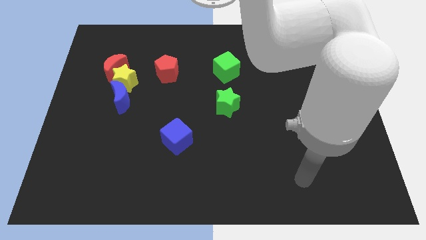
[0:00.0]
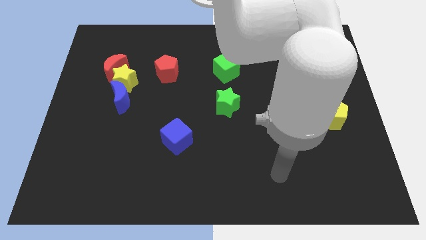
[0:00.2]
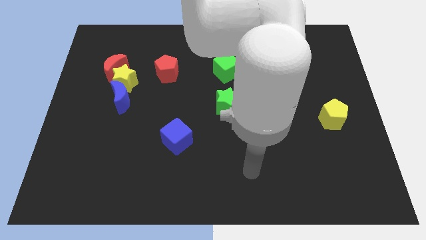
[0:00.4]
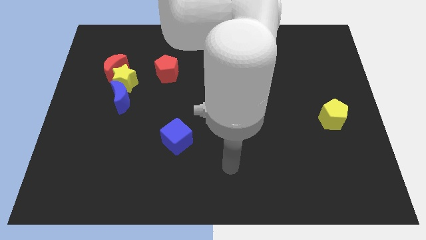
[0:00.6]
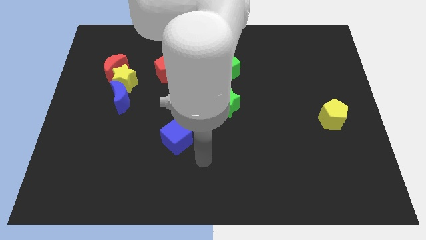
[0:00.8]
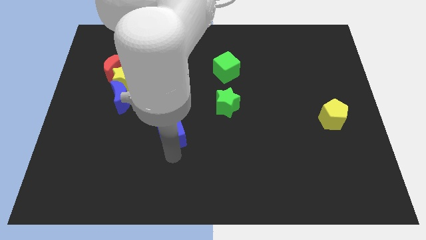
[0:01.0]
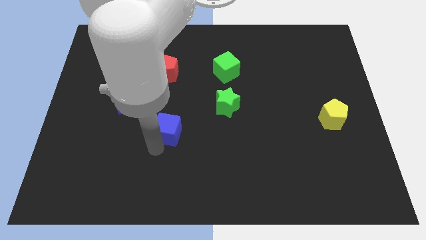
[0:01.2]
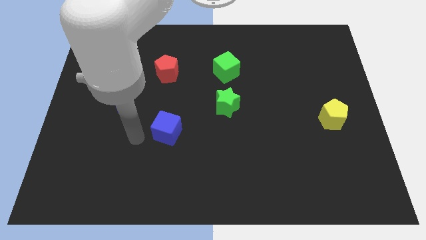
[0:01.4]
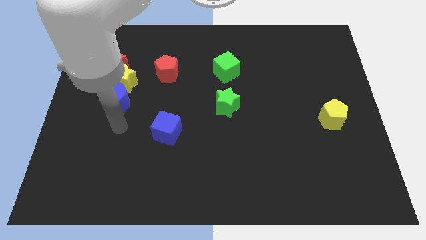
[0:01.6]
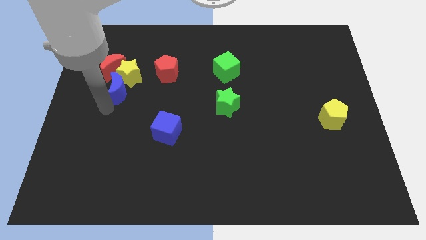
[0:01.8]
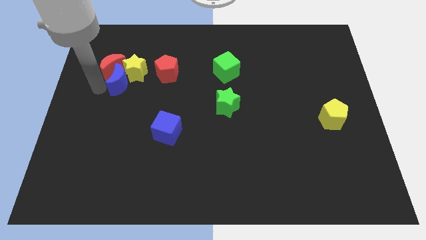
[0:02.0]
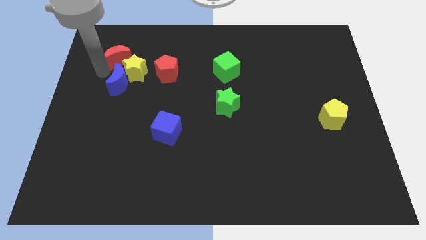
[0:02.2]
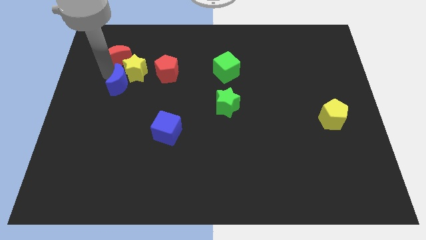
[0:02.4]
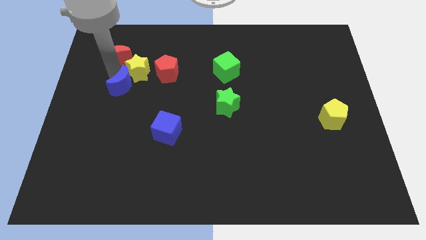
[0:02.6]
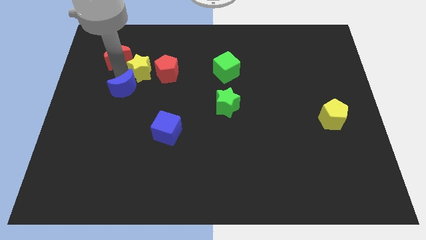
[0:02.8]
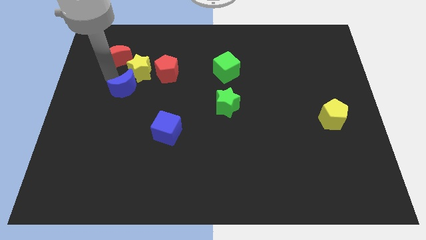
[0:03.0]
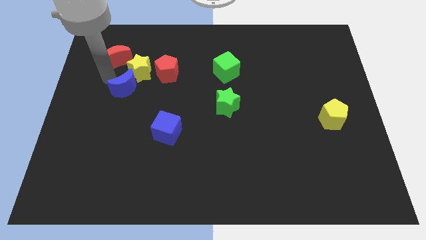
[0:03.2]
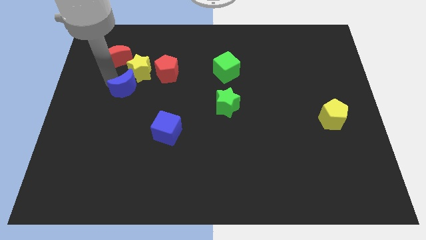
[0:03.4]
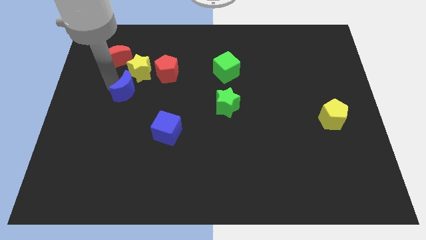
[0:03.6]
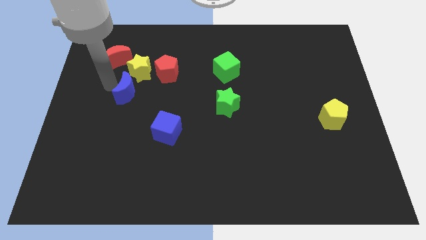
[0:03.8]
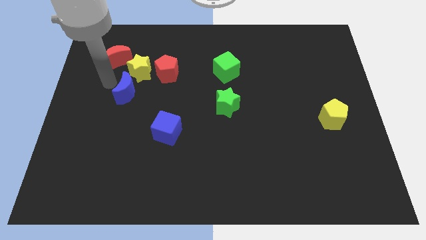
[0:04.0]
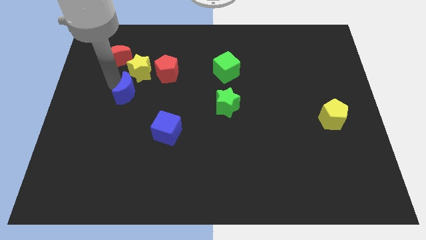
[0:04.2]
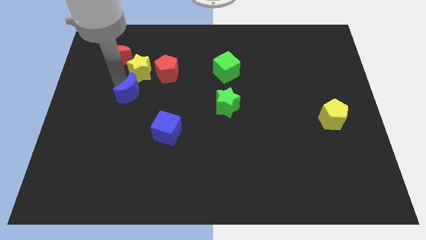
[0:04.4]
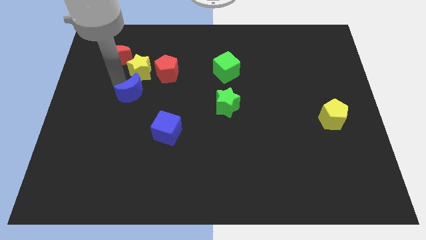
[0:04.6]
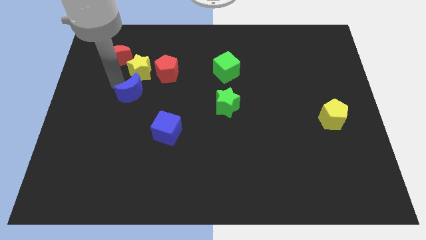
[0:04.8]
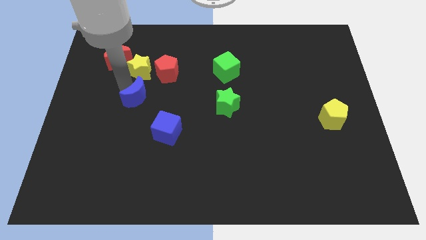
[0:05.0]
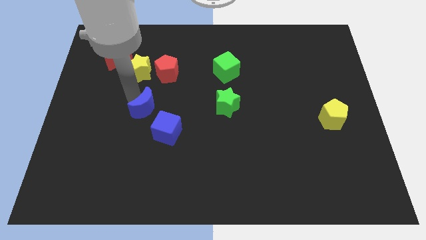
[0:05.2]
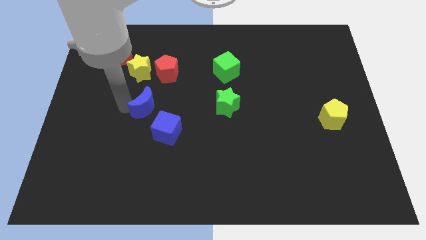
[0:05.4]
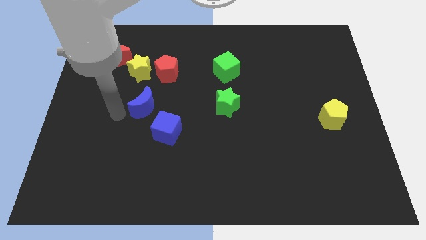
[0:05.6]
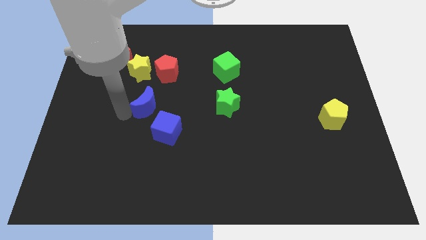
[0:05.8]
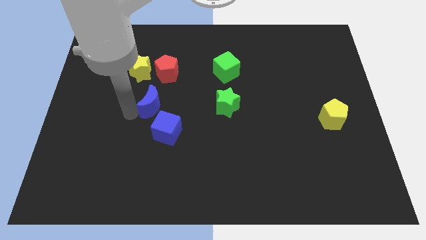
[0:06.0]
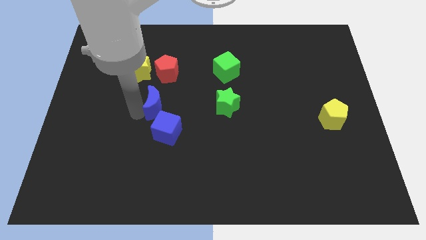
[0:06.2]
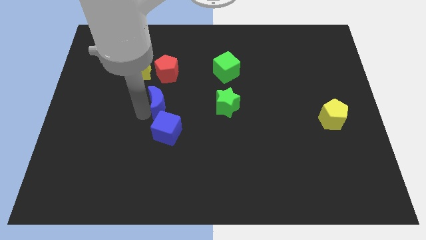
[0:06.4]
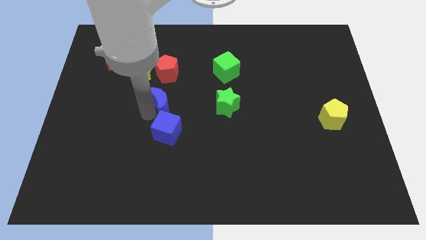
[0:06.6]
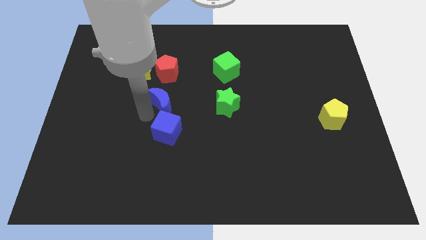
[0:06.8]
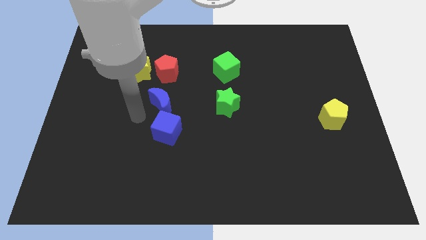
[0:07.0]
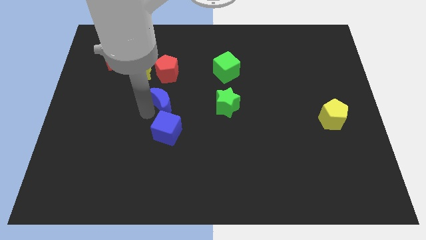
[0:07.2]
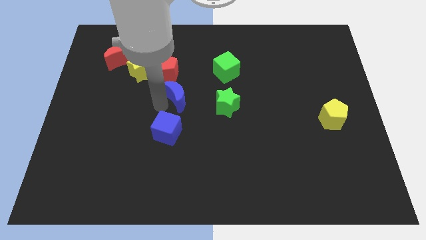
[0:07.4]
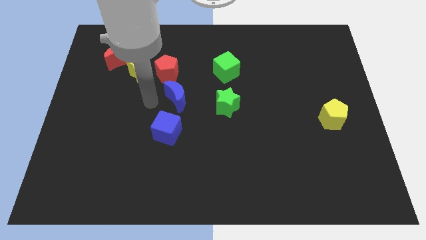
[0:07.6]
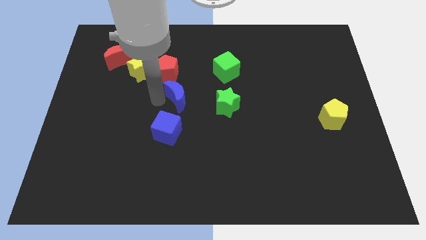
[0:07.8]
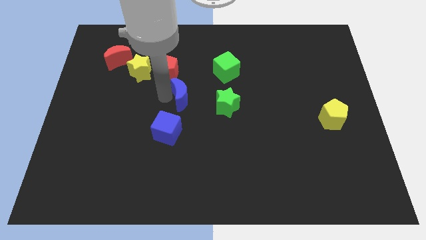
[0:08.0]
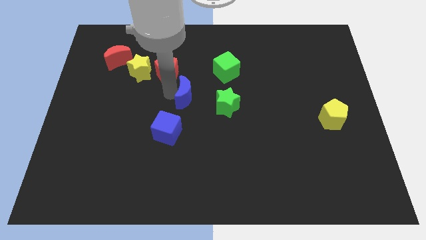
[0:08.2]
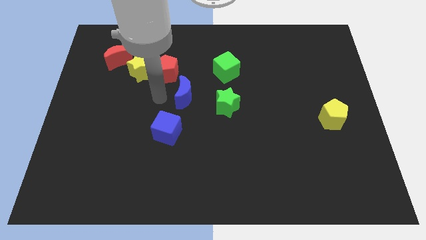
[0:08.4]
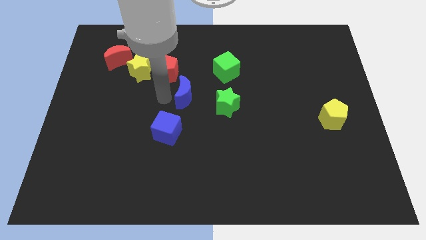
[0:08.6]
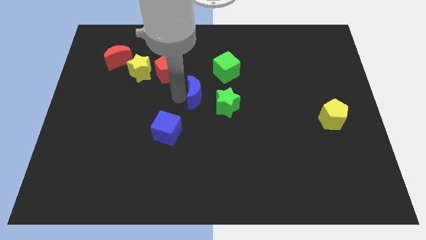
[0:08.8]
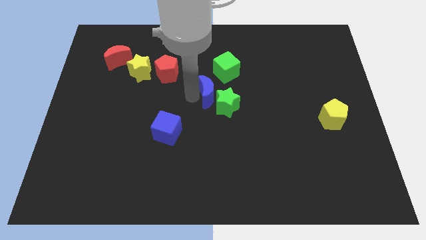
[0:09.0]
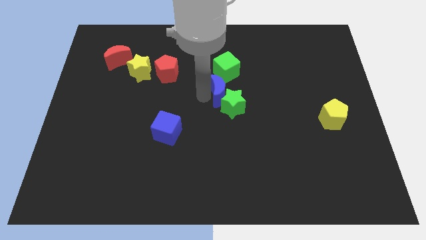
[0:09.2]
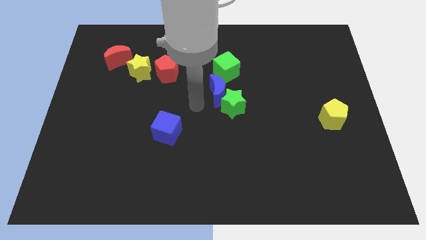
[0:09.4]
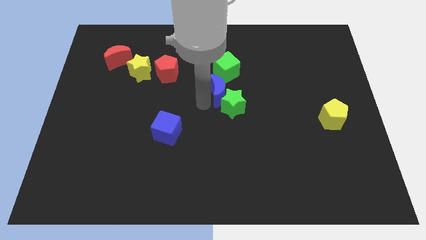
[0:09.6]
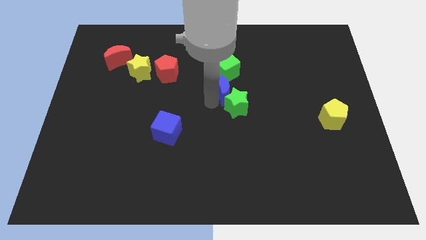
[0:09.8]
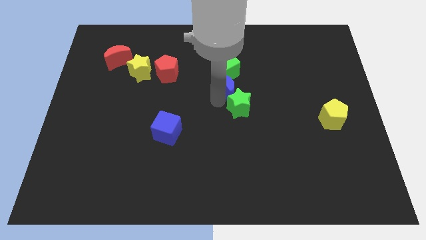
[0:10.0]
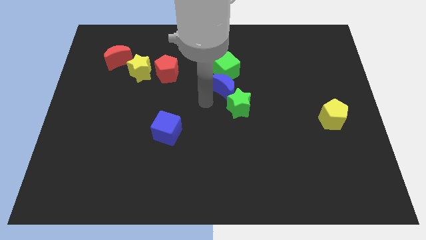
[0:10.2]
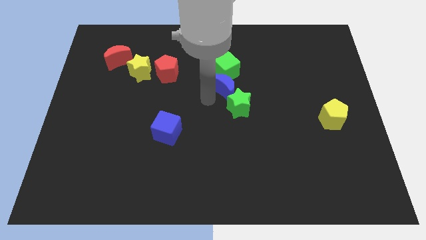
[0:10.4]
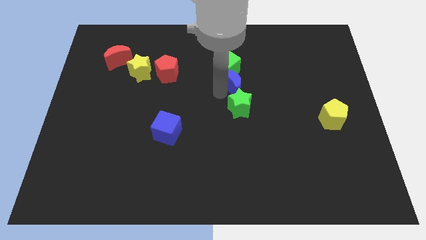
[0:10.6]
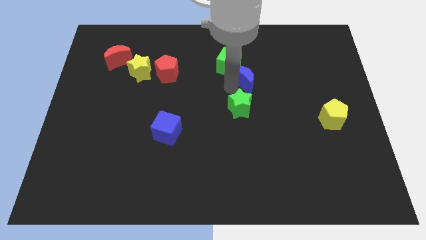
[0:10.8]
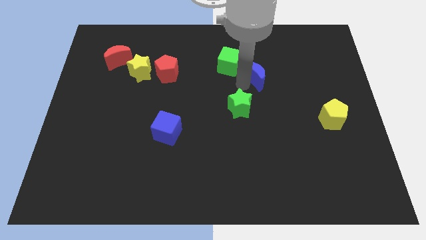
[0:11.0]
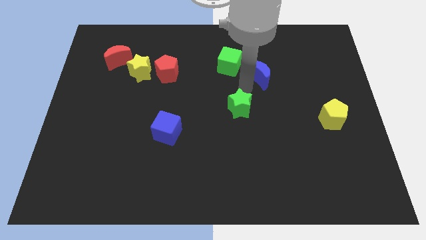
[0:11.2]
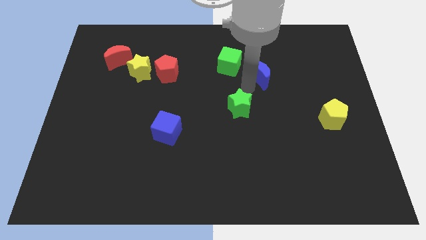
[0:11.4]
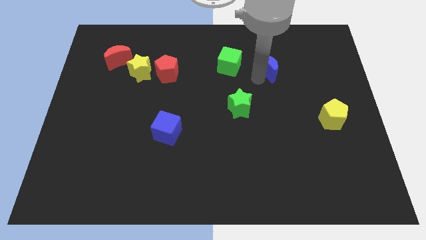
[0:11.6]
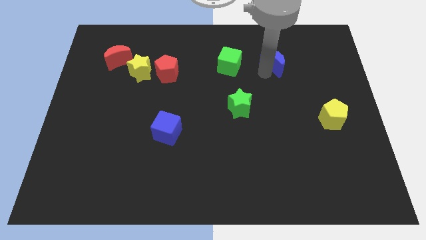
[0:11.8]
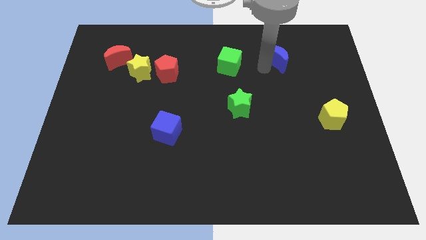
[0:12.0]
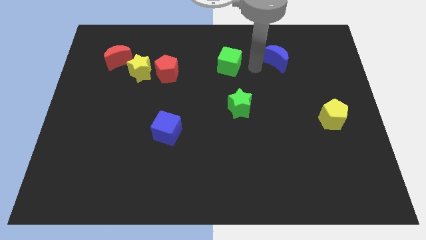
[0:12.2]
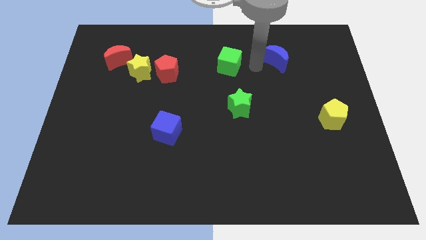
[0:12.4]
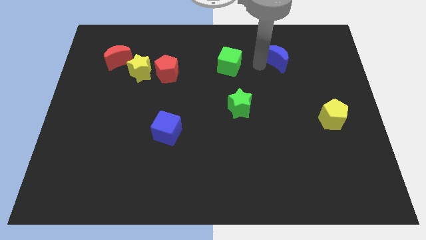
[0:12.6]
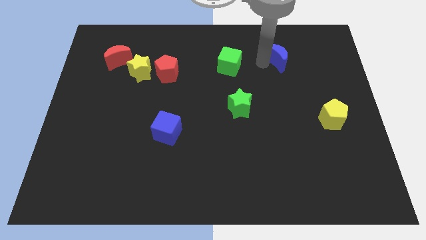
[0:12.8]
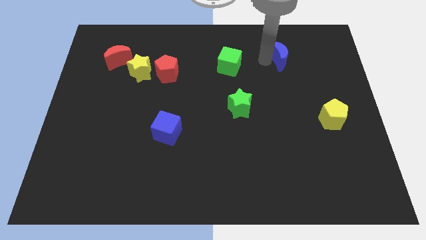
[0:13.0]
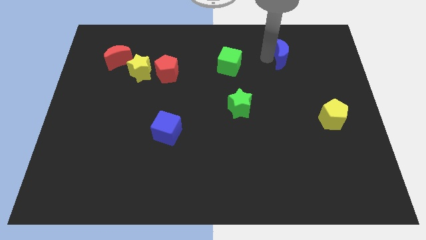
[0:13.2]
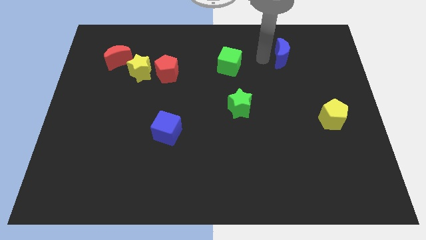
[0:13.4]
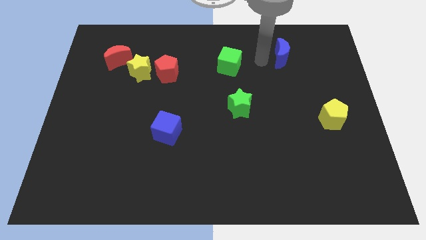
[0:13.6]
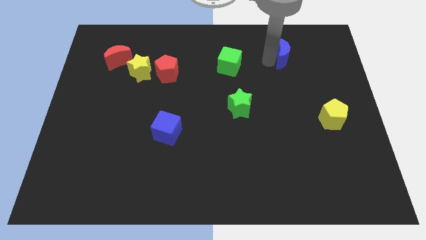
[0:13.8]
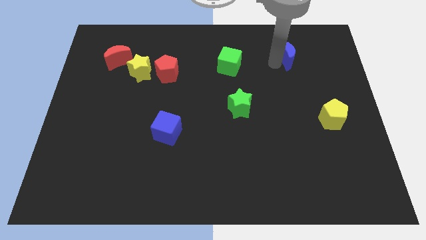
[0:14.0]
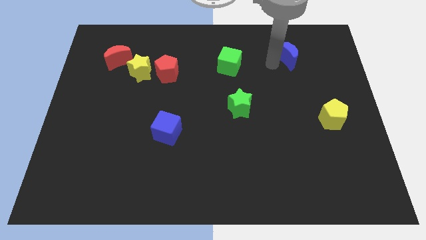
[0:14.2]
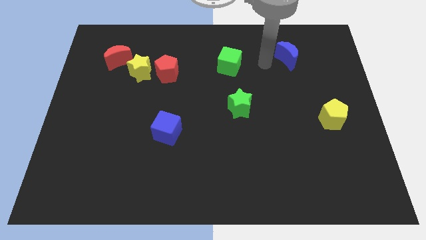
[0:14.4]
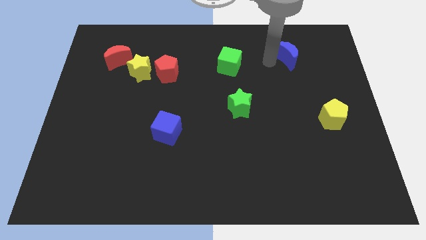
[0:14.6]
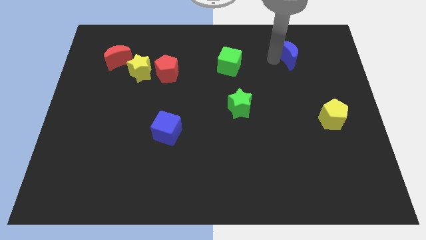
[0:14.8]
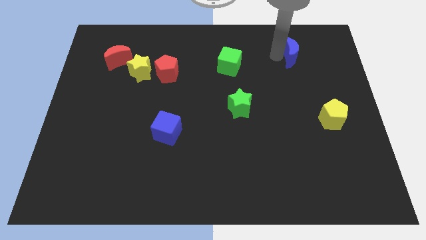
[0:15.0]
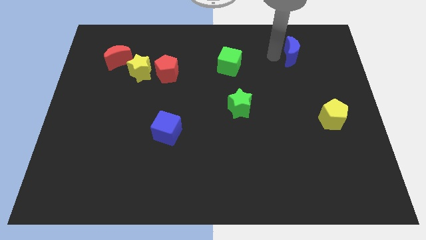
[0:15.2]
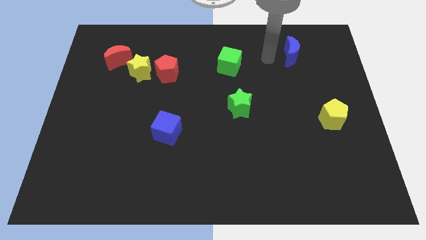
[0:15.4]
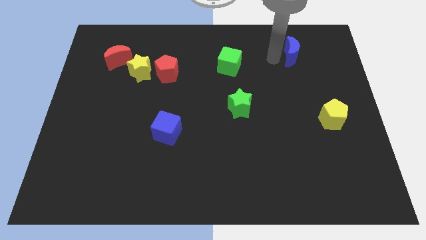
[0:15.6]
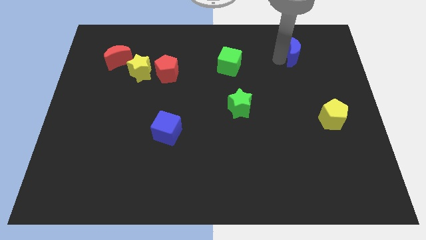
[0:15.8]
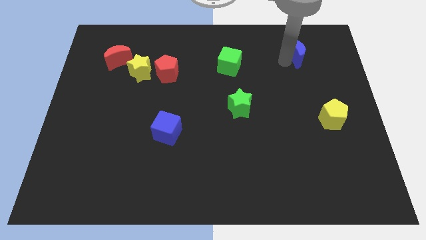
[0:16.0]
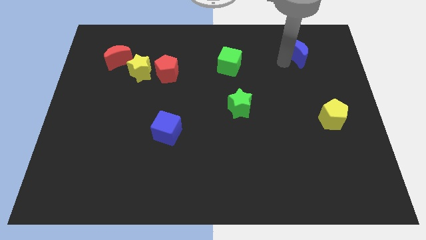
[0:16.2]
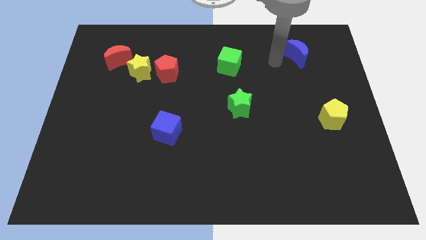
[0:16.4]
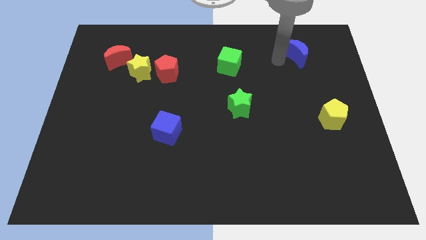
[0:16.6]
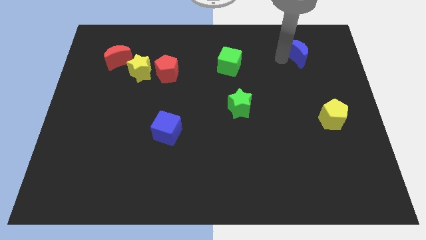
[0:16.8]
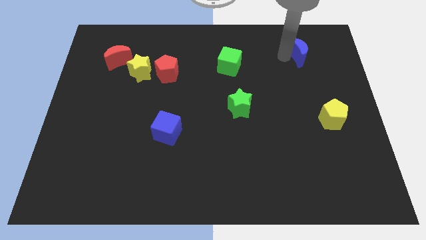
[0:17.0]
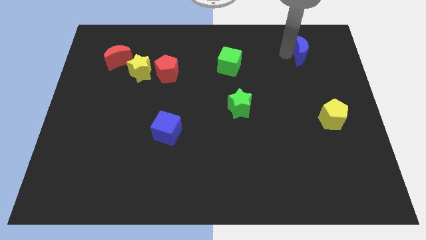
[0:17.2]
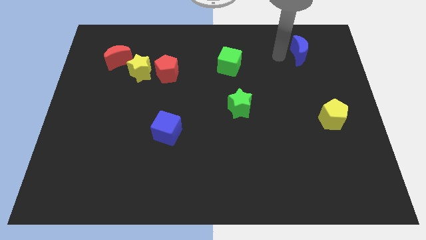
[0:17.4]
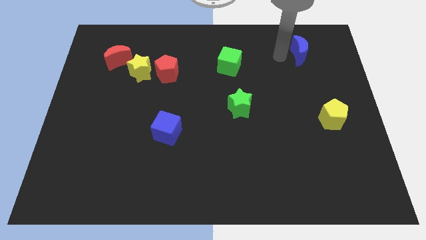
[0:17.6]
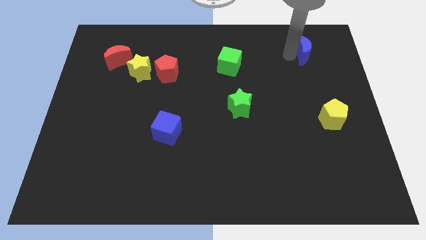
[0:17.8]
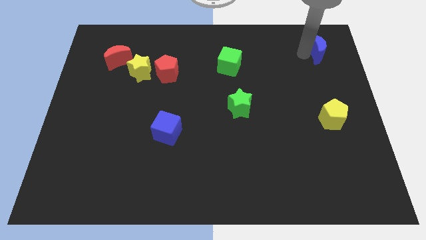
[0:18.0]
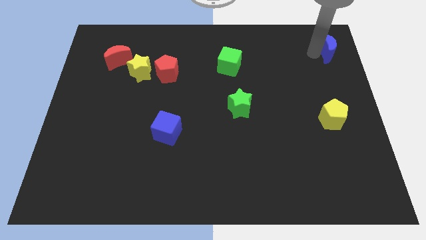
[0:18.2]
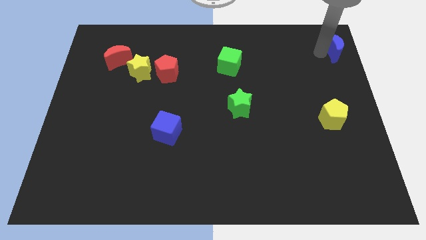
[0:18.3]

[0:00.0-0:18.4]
put the blue moon to the top right of the board
